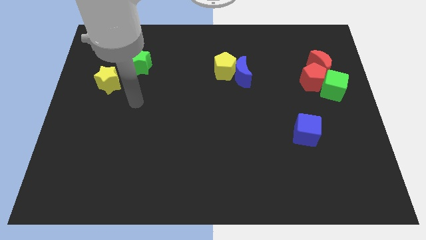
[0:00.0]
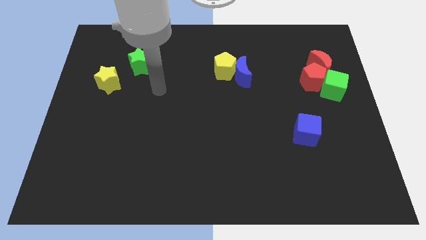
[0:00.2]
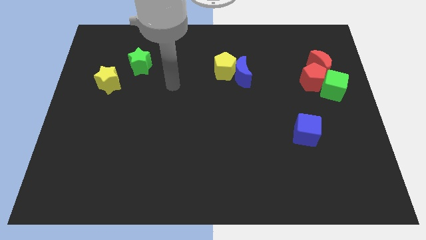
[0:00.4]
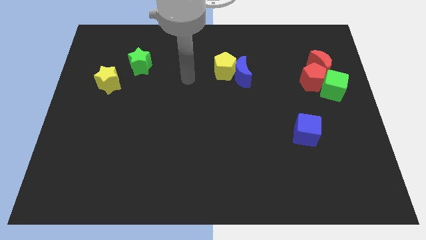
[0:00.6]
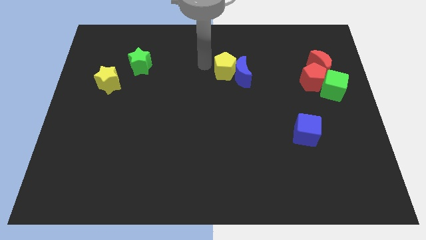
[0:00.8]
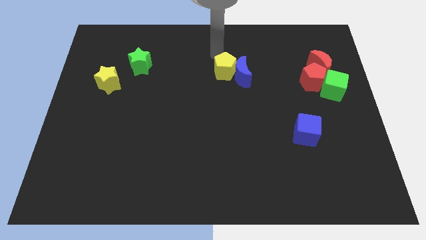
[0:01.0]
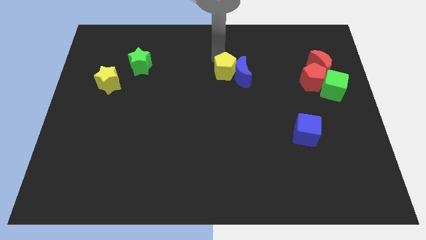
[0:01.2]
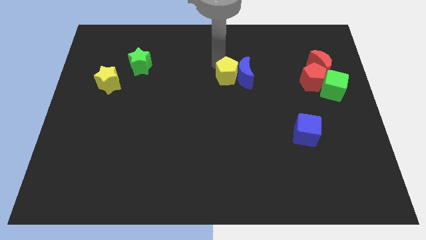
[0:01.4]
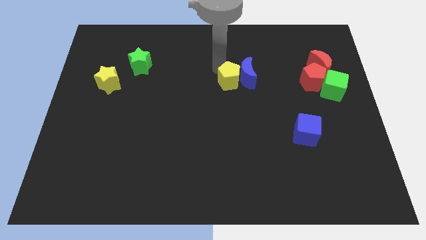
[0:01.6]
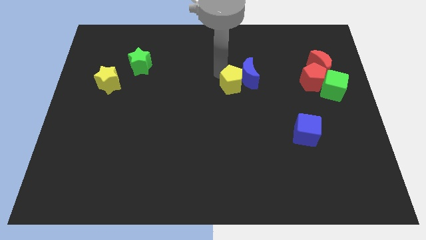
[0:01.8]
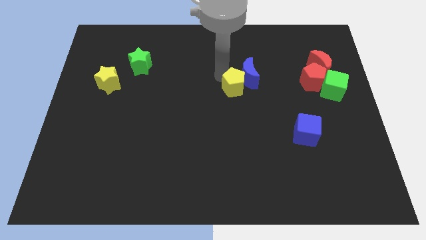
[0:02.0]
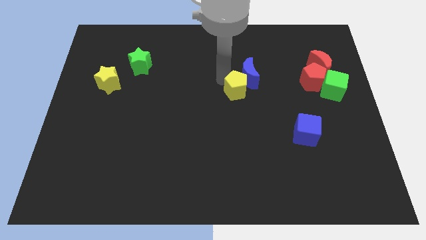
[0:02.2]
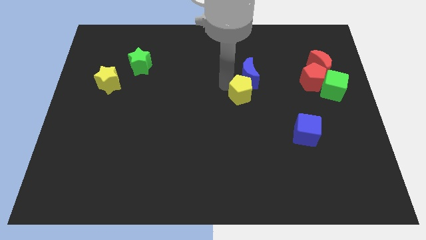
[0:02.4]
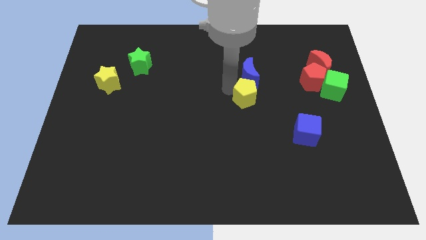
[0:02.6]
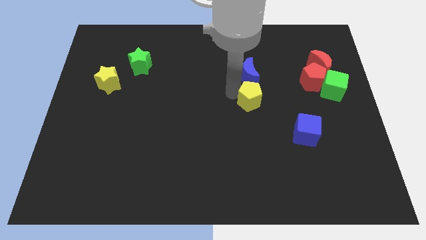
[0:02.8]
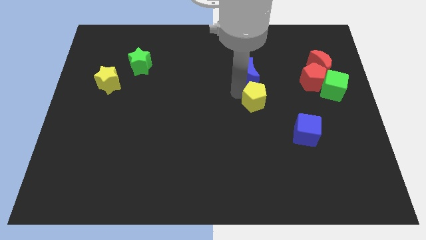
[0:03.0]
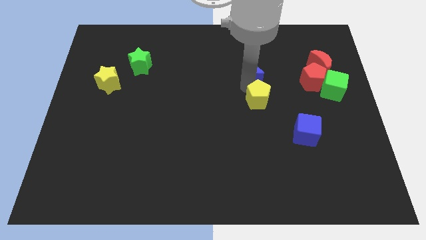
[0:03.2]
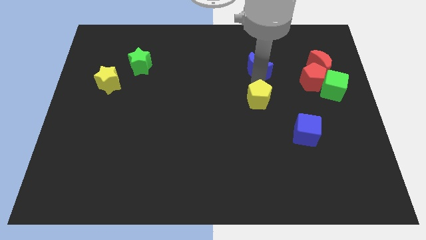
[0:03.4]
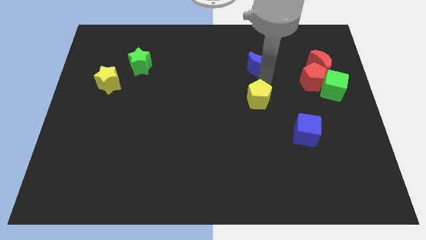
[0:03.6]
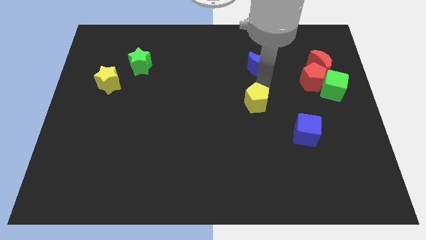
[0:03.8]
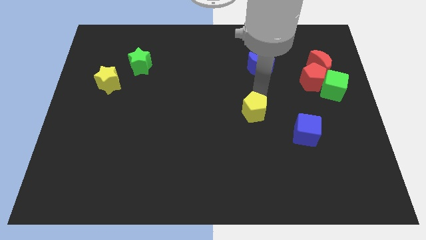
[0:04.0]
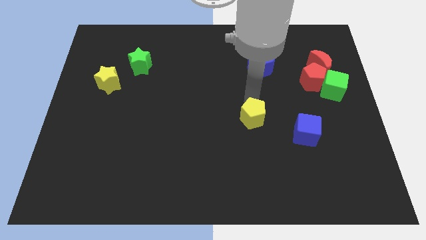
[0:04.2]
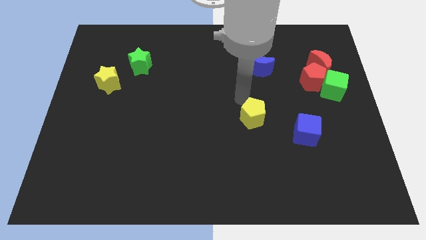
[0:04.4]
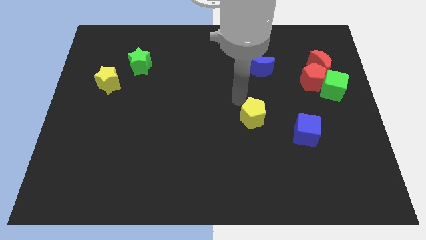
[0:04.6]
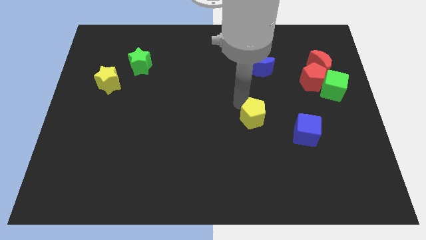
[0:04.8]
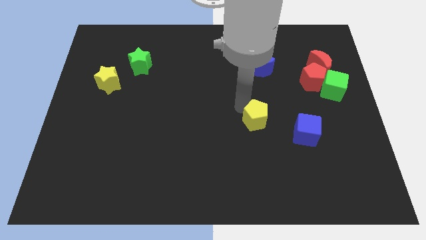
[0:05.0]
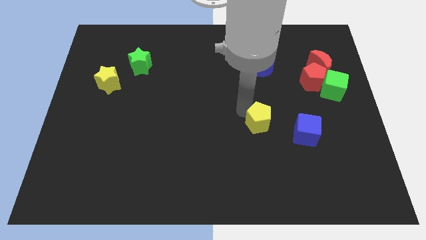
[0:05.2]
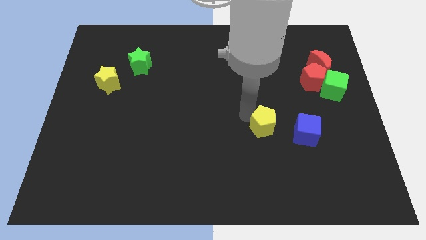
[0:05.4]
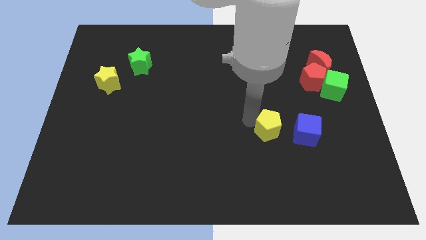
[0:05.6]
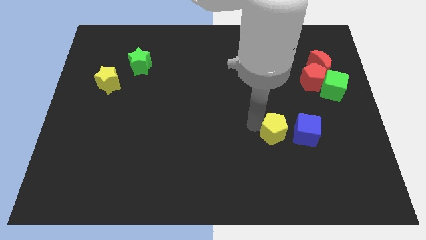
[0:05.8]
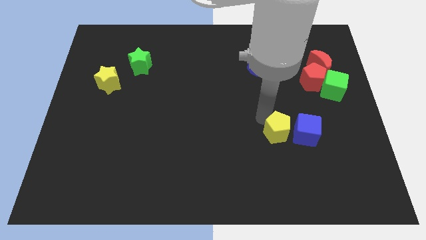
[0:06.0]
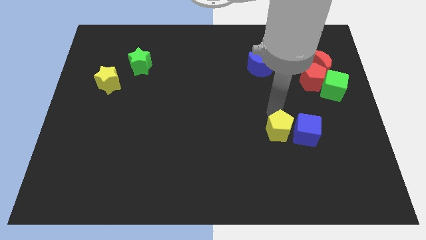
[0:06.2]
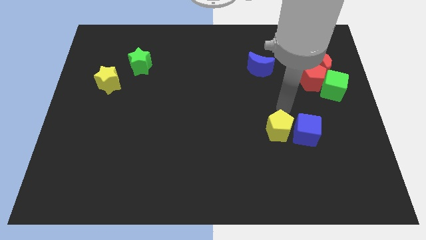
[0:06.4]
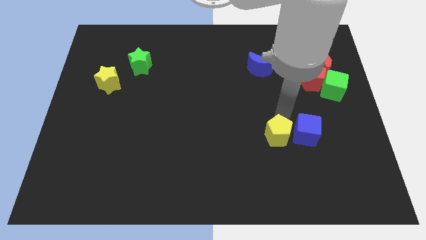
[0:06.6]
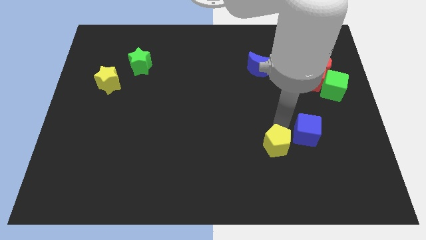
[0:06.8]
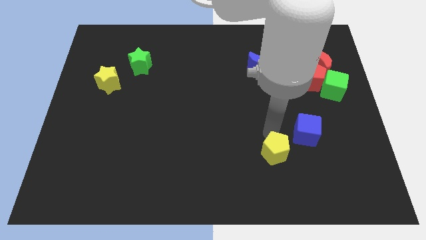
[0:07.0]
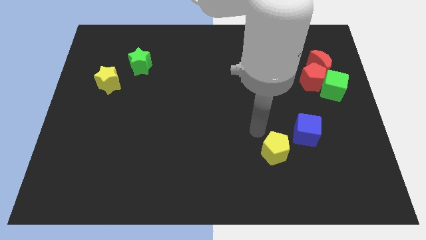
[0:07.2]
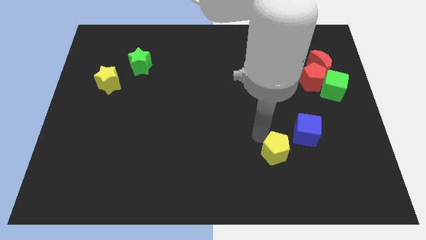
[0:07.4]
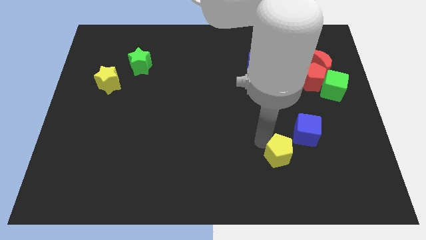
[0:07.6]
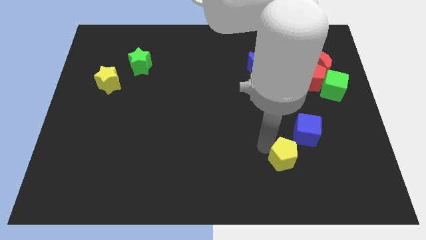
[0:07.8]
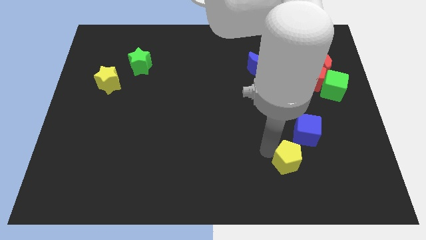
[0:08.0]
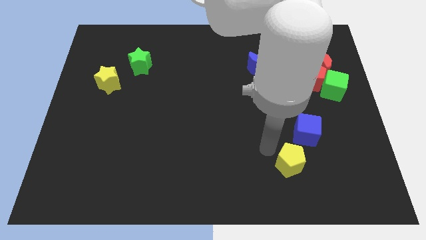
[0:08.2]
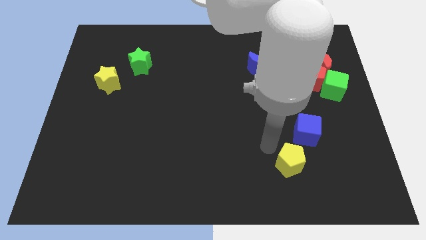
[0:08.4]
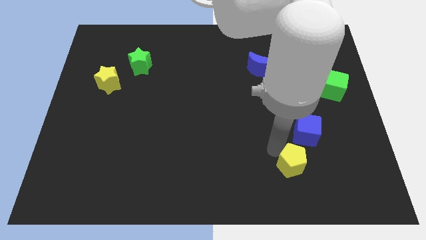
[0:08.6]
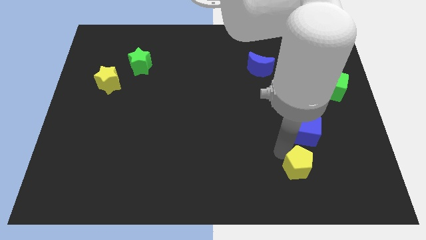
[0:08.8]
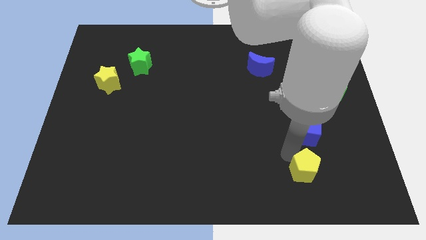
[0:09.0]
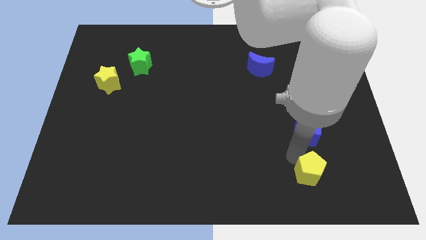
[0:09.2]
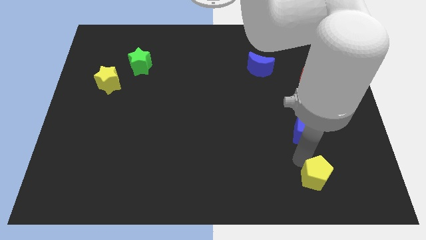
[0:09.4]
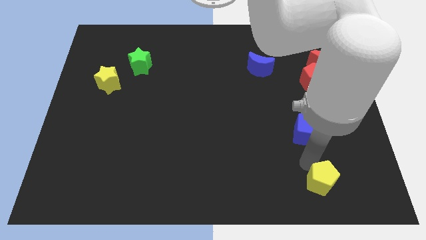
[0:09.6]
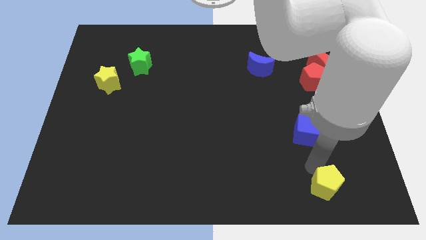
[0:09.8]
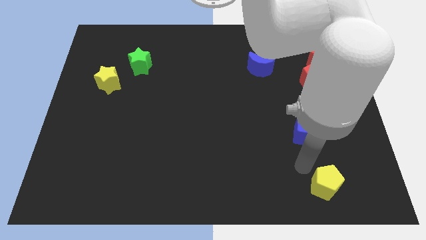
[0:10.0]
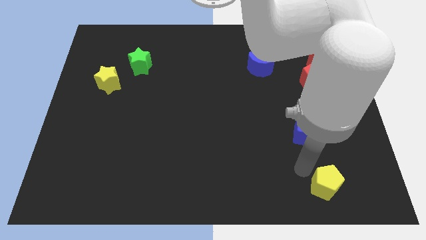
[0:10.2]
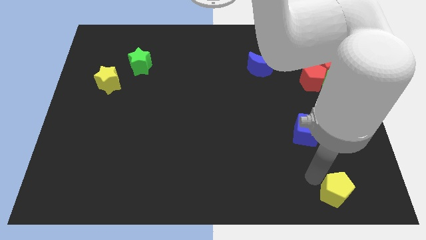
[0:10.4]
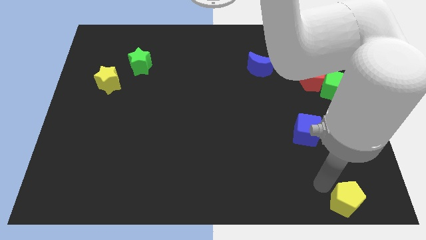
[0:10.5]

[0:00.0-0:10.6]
move the yellow pentagon to the bottom right corner

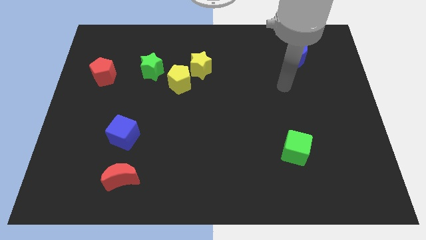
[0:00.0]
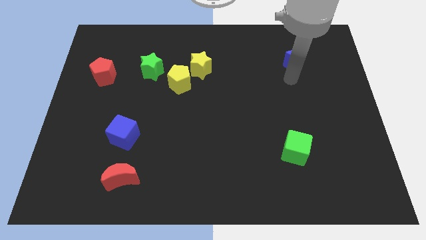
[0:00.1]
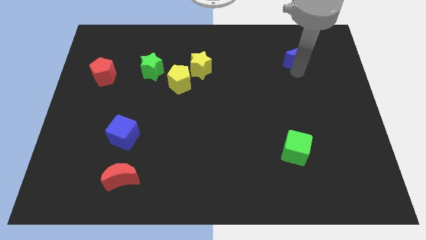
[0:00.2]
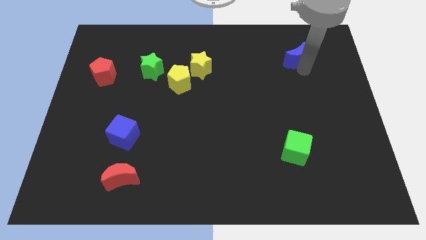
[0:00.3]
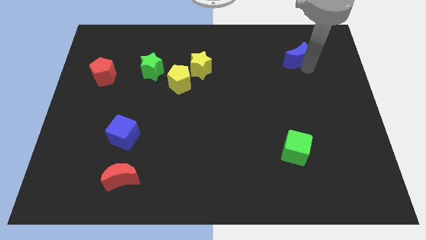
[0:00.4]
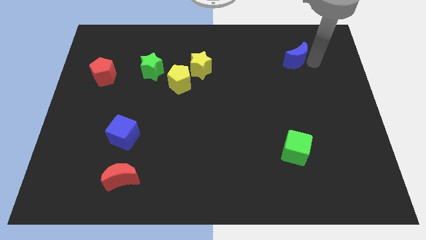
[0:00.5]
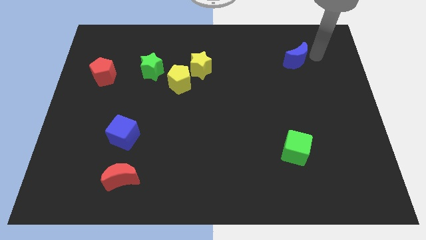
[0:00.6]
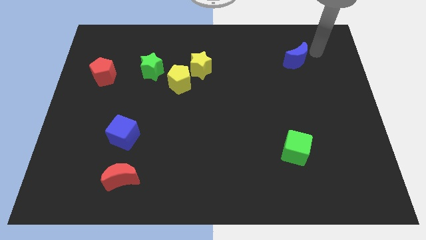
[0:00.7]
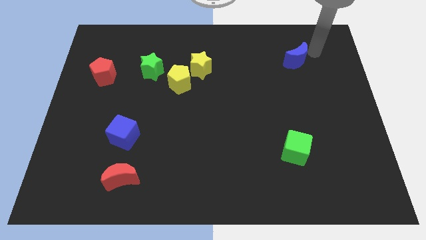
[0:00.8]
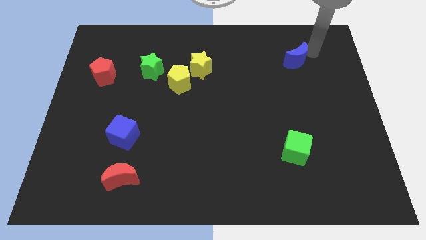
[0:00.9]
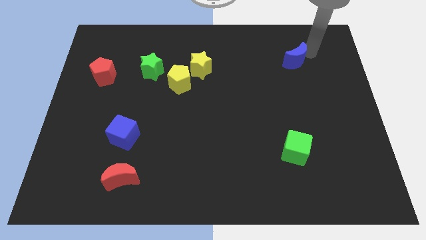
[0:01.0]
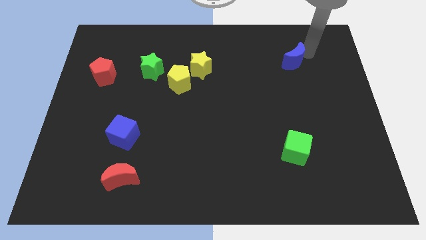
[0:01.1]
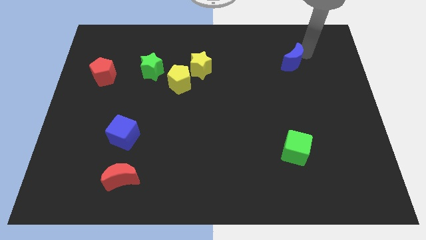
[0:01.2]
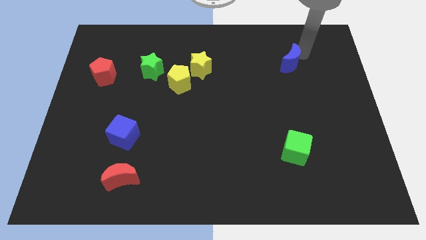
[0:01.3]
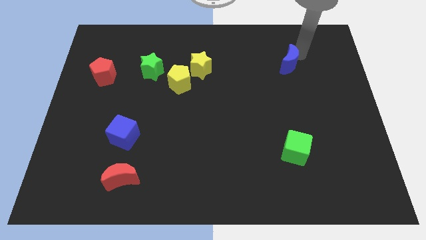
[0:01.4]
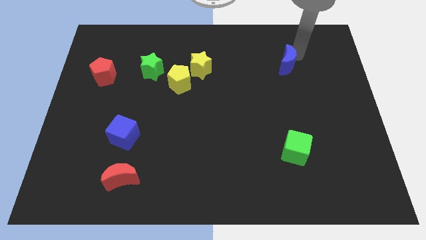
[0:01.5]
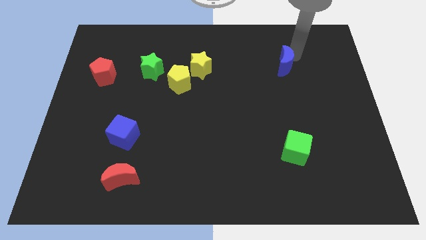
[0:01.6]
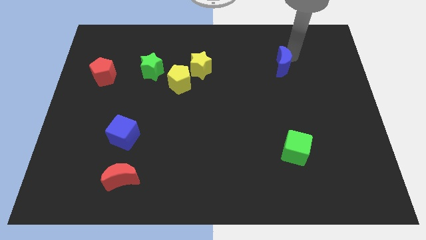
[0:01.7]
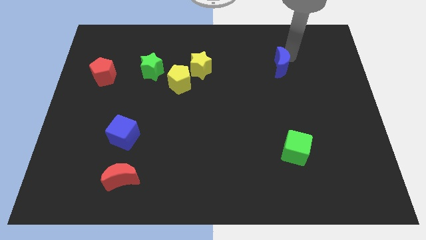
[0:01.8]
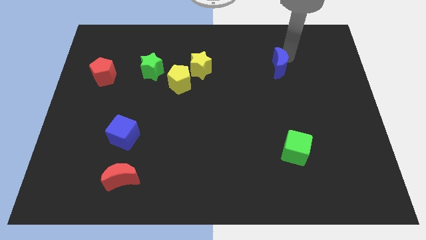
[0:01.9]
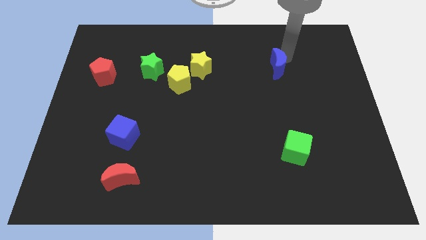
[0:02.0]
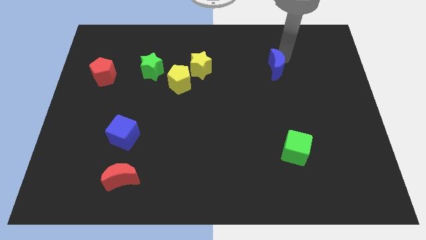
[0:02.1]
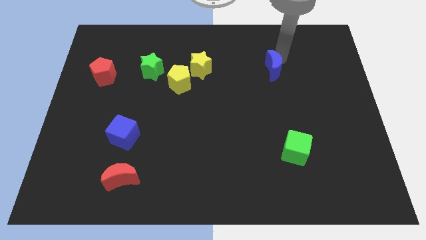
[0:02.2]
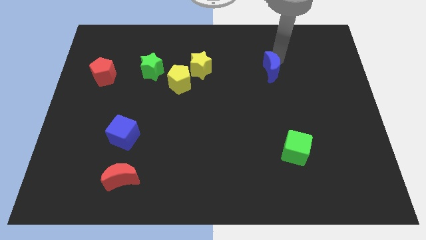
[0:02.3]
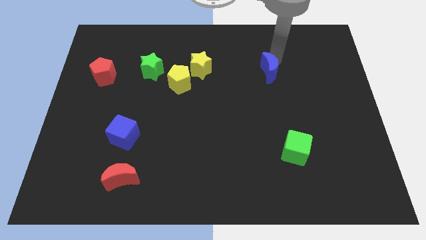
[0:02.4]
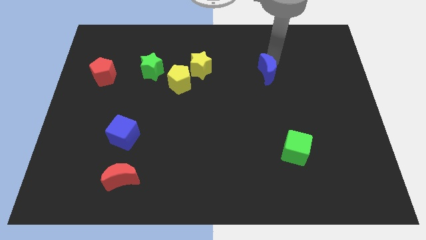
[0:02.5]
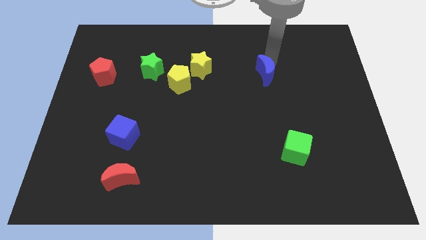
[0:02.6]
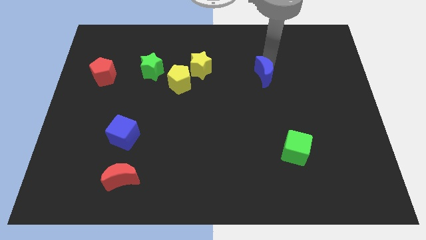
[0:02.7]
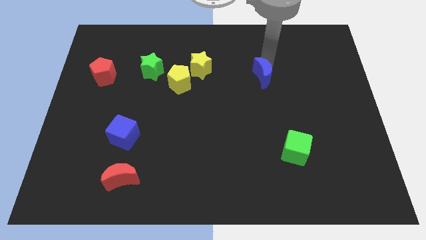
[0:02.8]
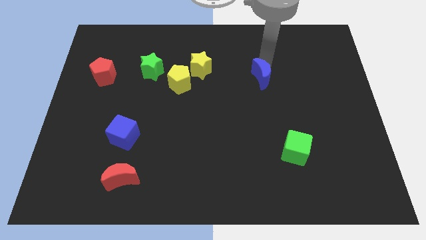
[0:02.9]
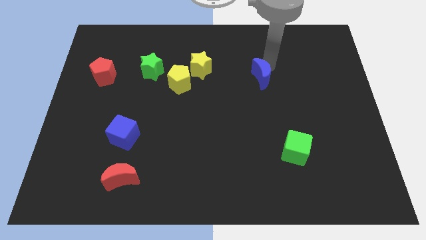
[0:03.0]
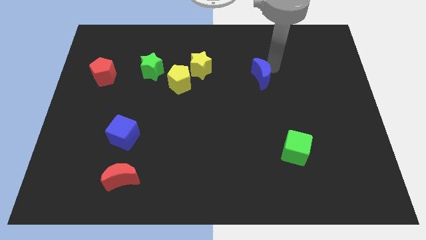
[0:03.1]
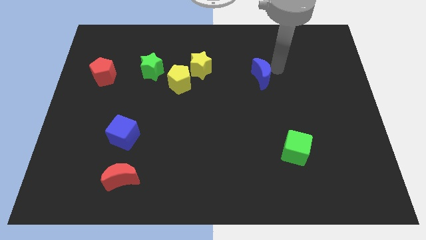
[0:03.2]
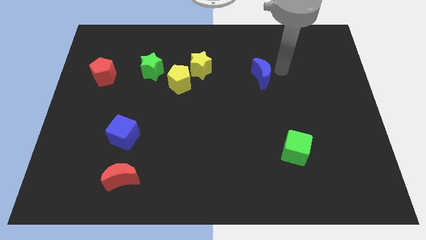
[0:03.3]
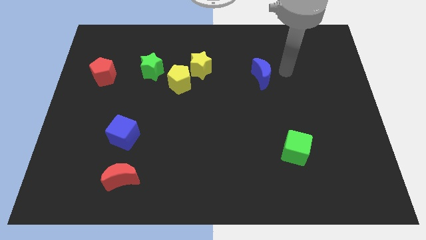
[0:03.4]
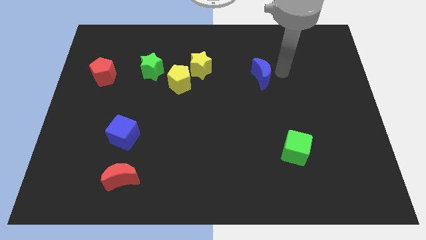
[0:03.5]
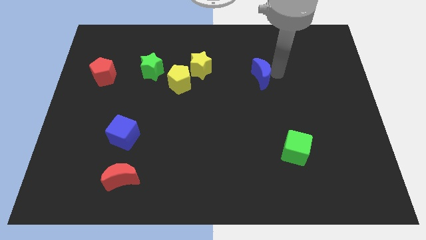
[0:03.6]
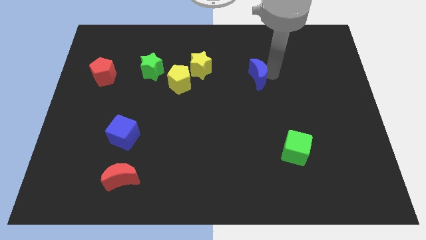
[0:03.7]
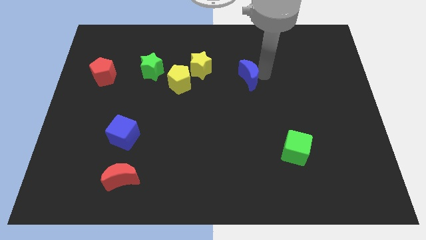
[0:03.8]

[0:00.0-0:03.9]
move the blue moon to the center
